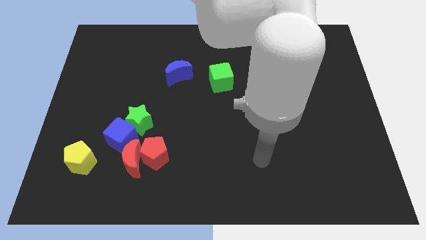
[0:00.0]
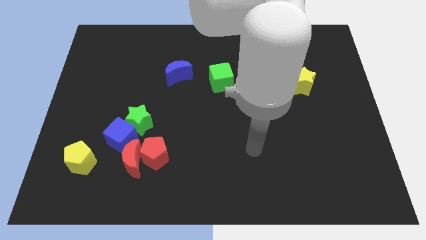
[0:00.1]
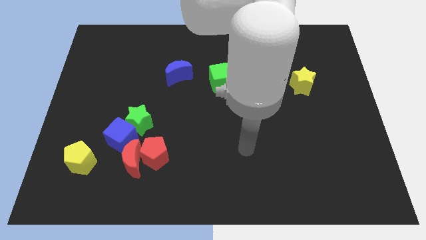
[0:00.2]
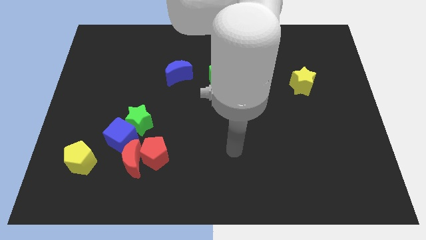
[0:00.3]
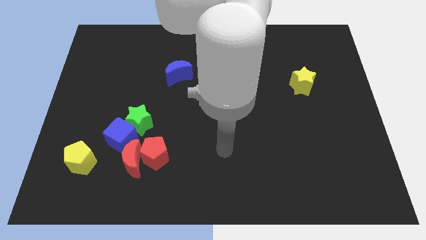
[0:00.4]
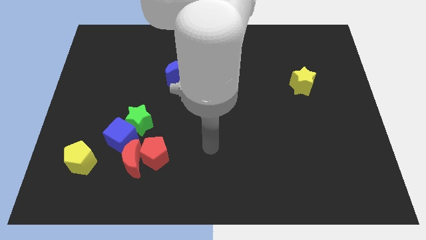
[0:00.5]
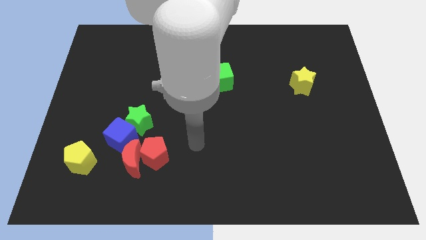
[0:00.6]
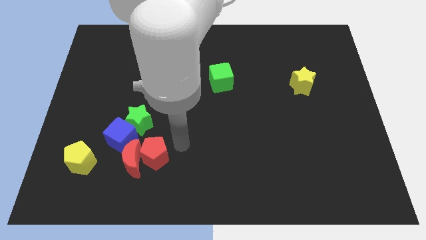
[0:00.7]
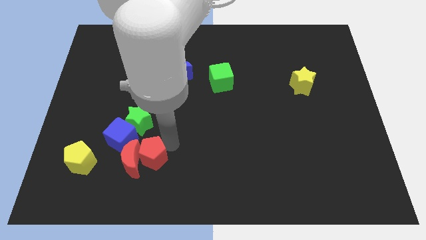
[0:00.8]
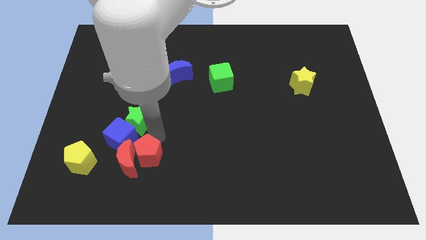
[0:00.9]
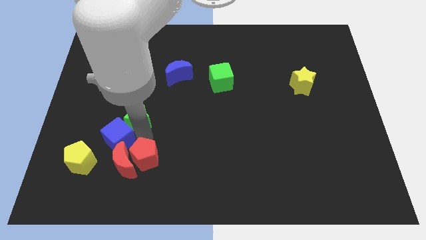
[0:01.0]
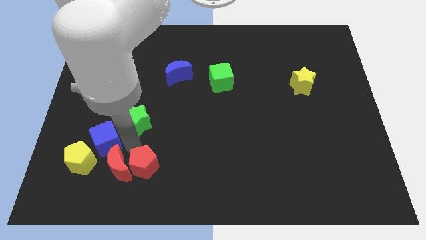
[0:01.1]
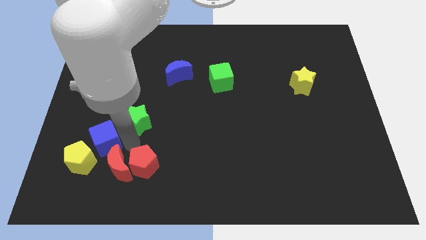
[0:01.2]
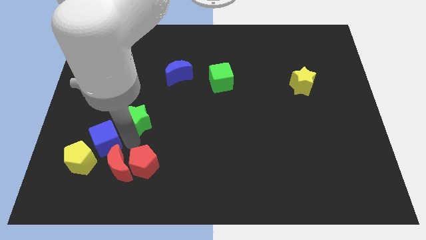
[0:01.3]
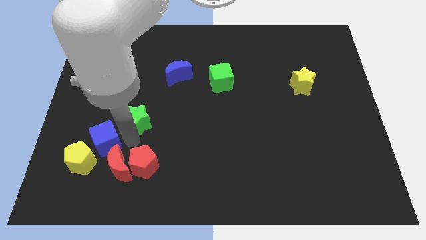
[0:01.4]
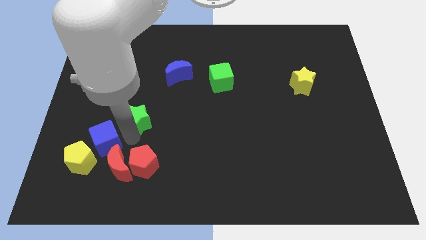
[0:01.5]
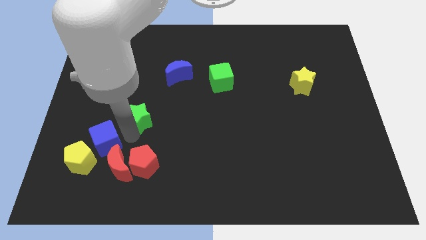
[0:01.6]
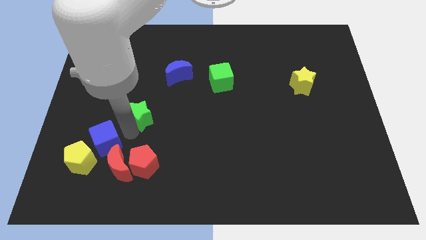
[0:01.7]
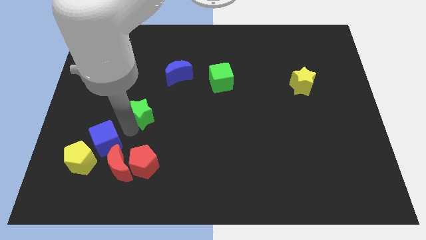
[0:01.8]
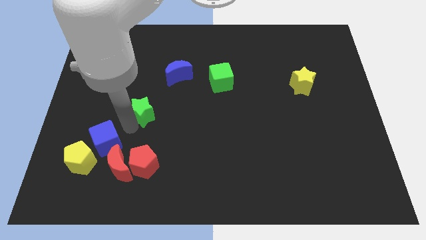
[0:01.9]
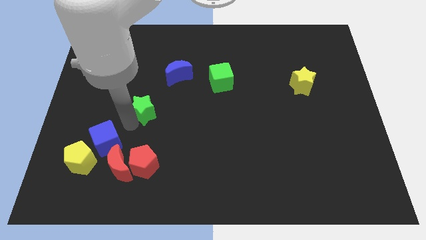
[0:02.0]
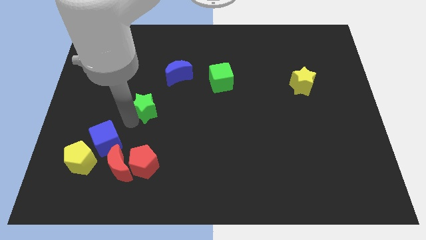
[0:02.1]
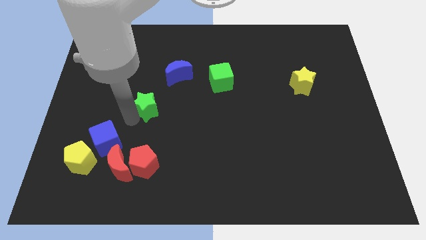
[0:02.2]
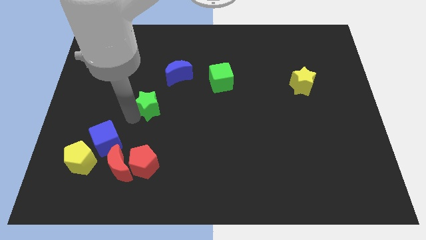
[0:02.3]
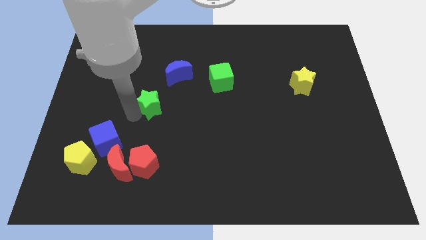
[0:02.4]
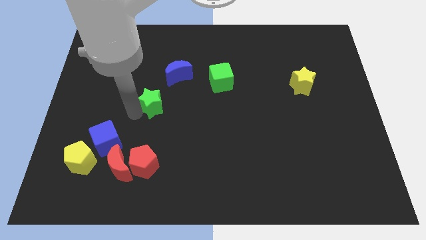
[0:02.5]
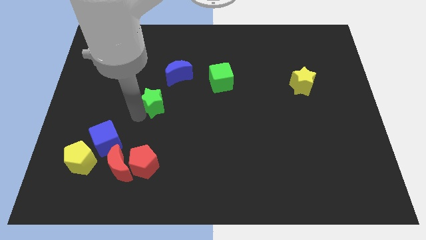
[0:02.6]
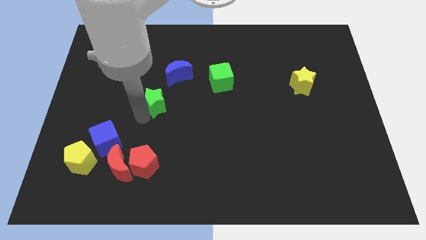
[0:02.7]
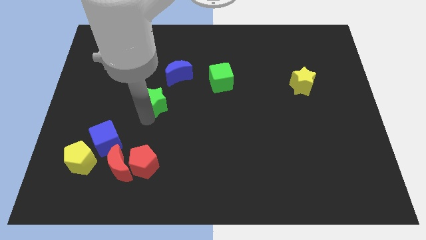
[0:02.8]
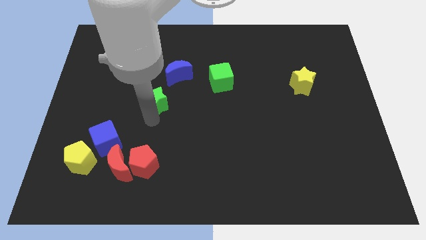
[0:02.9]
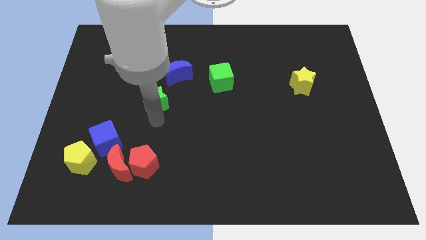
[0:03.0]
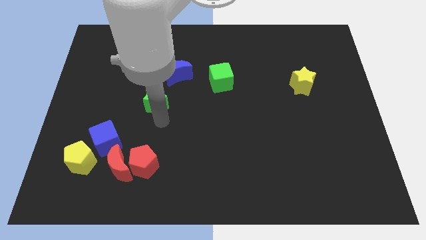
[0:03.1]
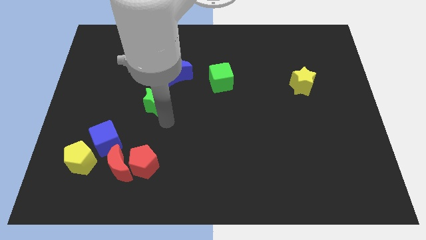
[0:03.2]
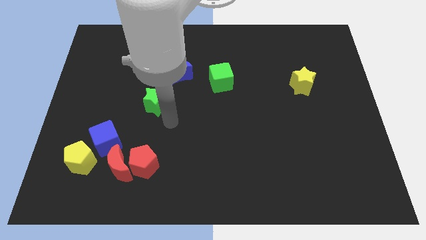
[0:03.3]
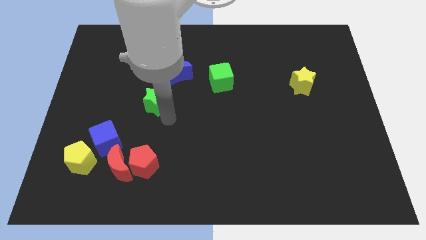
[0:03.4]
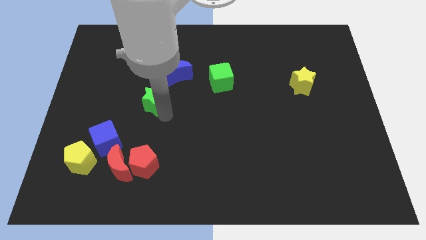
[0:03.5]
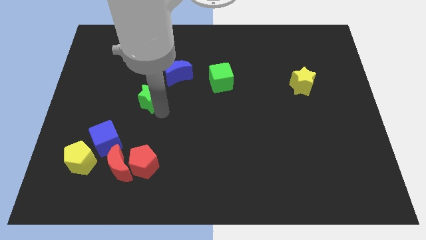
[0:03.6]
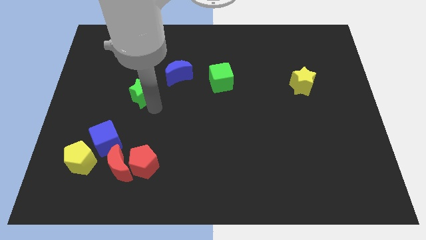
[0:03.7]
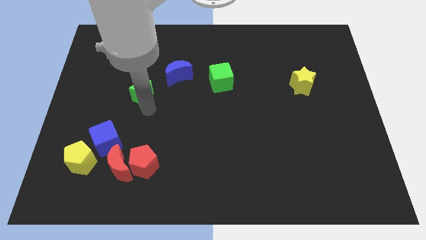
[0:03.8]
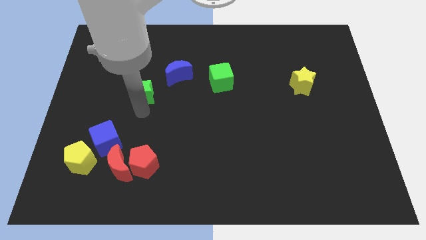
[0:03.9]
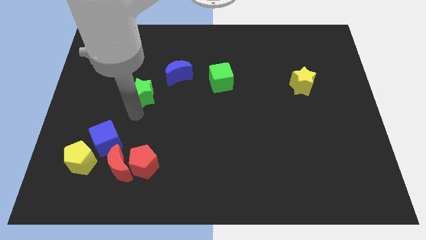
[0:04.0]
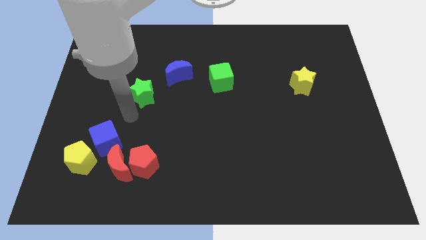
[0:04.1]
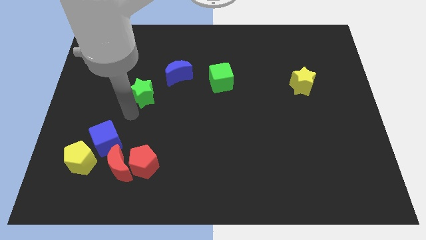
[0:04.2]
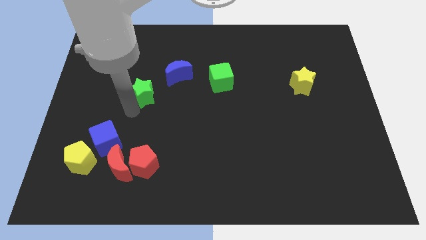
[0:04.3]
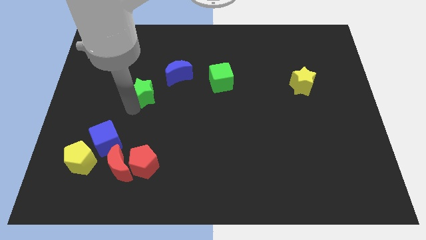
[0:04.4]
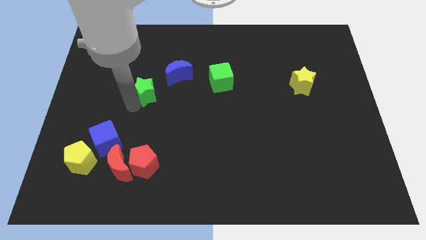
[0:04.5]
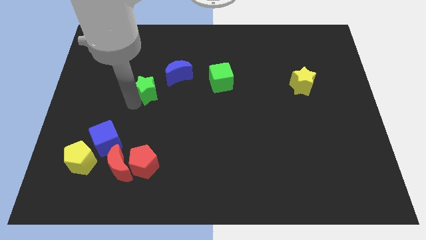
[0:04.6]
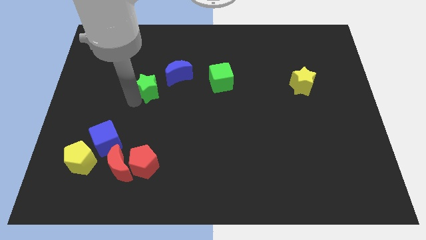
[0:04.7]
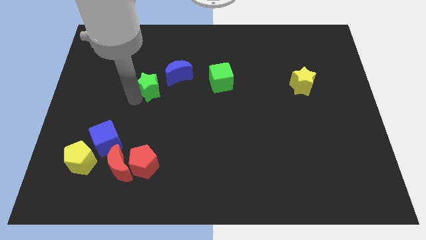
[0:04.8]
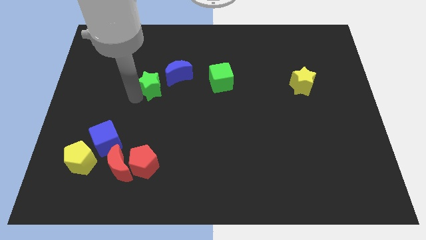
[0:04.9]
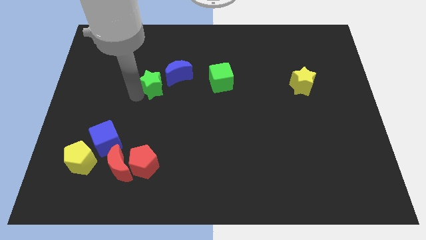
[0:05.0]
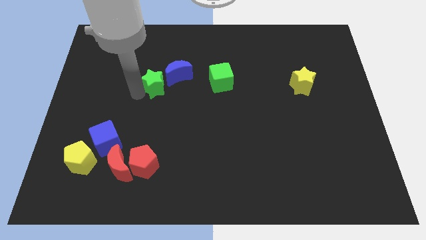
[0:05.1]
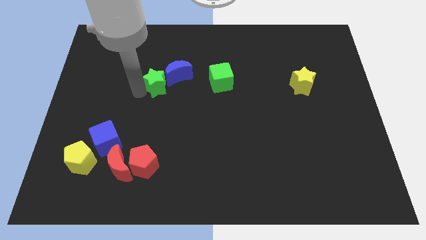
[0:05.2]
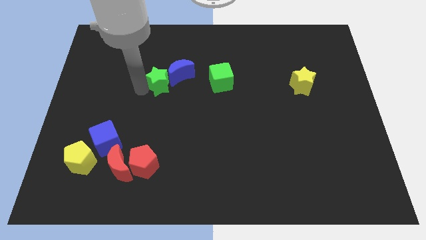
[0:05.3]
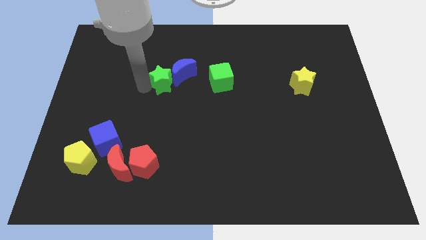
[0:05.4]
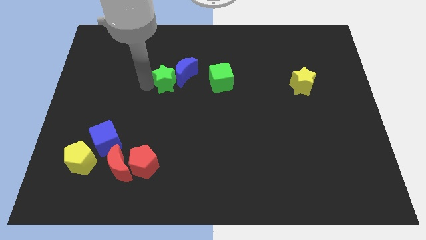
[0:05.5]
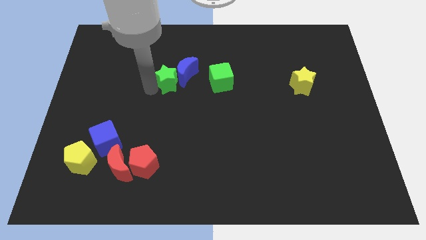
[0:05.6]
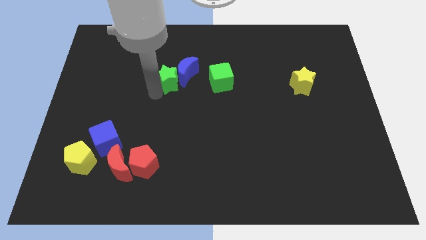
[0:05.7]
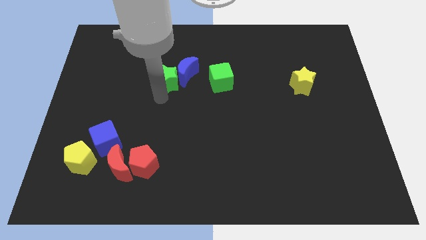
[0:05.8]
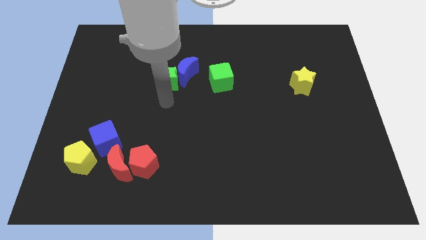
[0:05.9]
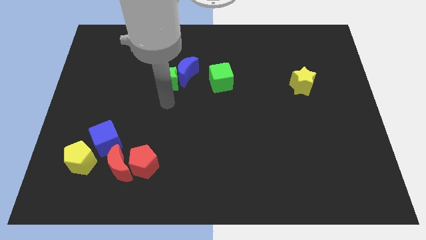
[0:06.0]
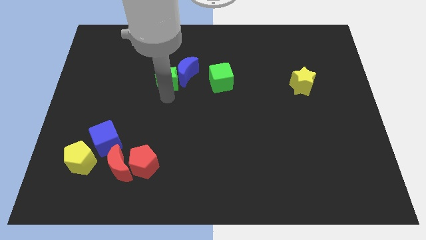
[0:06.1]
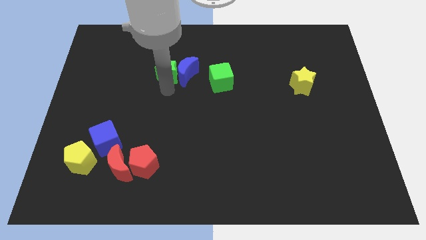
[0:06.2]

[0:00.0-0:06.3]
slide the green star to the top left of the blue moon

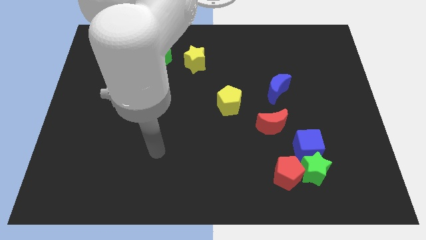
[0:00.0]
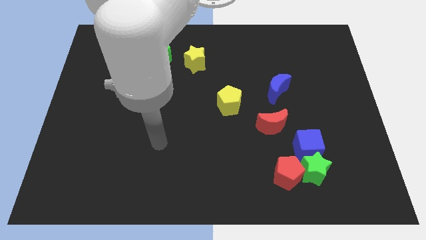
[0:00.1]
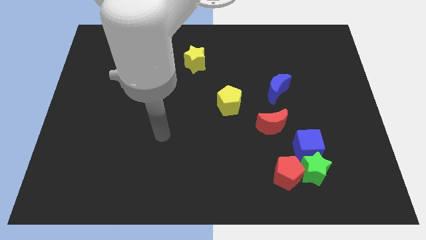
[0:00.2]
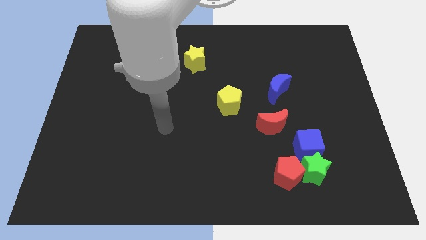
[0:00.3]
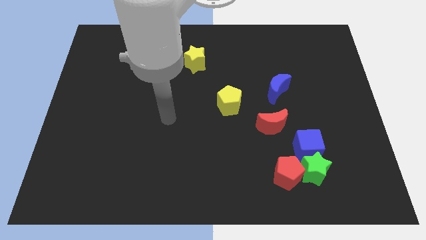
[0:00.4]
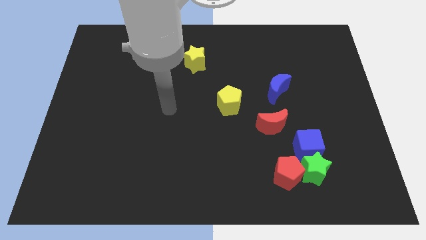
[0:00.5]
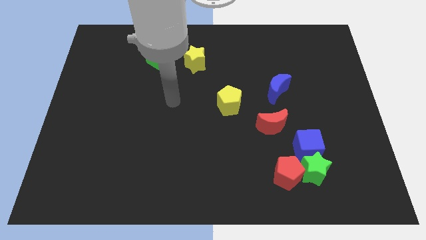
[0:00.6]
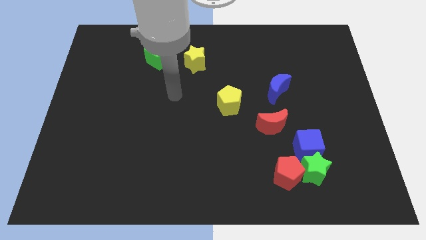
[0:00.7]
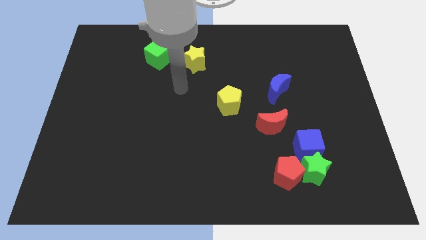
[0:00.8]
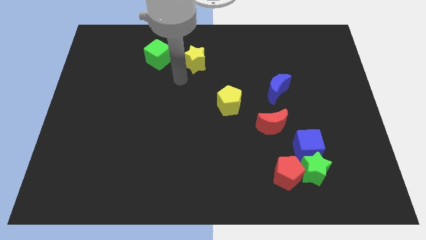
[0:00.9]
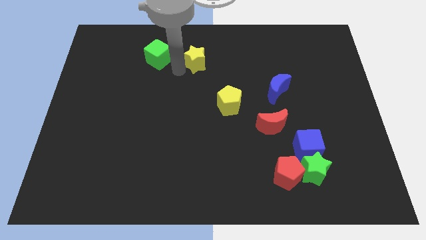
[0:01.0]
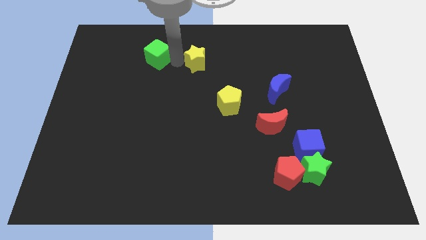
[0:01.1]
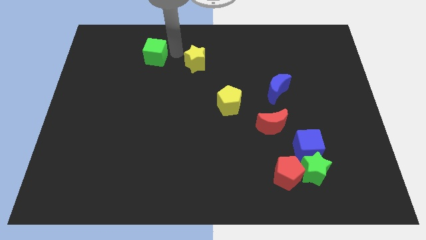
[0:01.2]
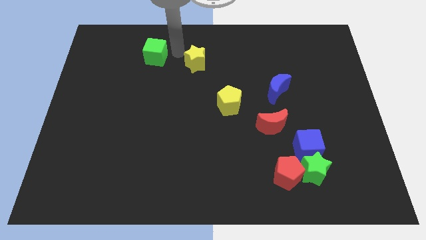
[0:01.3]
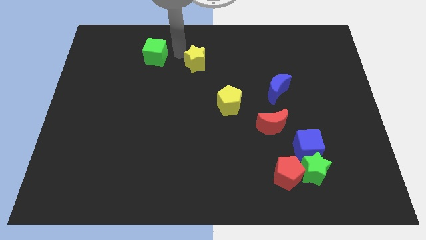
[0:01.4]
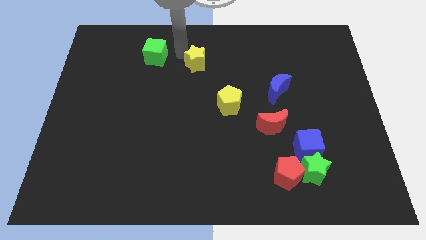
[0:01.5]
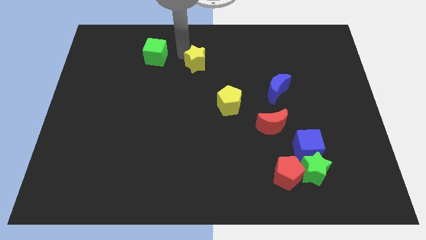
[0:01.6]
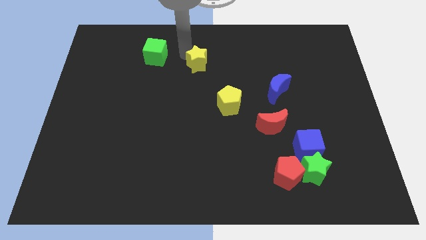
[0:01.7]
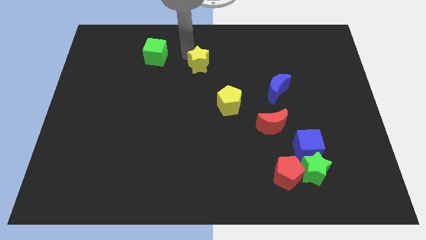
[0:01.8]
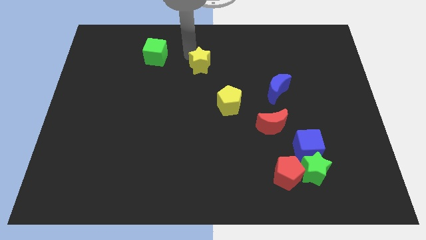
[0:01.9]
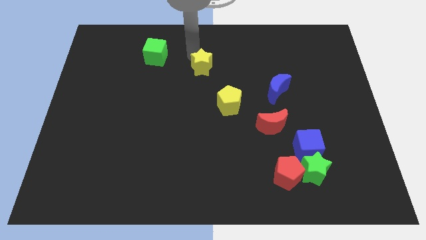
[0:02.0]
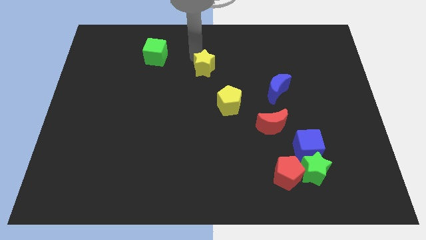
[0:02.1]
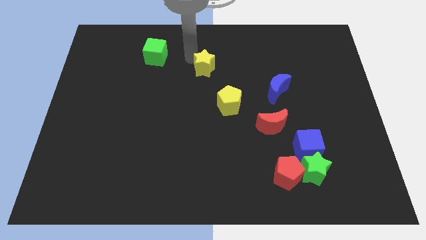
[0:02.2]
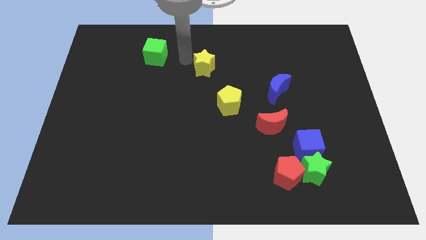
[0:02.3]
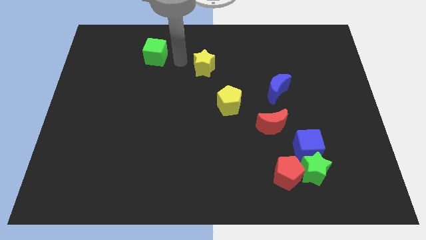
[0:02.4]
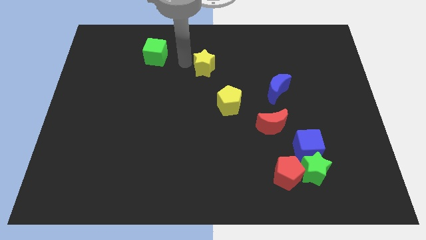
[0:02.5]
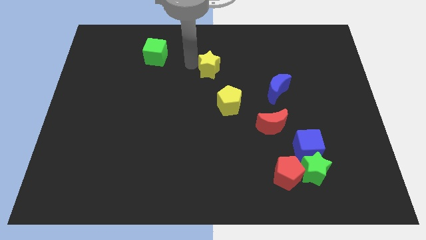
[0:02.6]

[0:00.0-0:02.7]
move the yellow star to the top of the yellow pentagon
